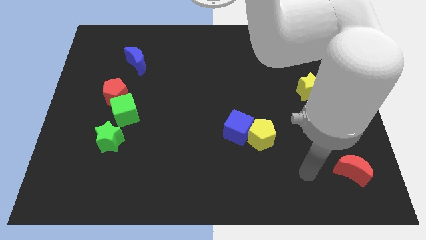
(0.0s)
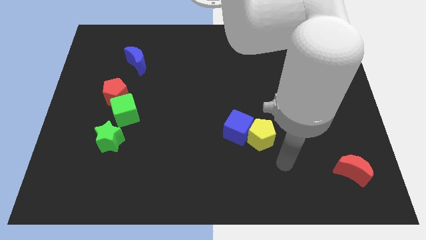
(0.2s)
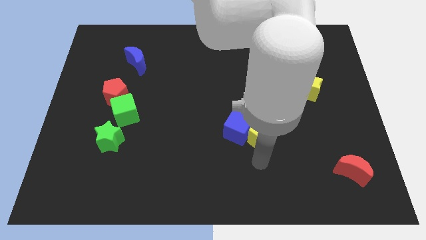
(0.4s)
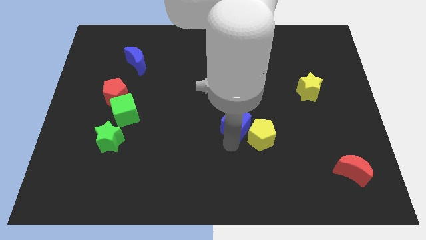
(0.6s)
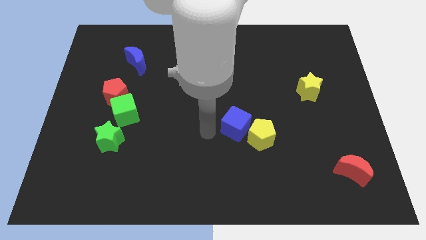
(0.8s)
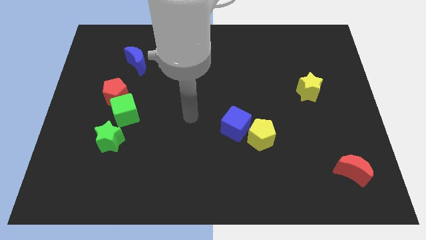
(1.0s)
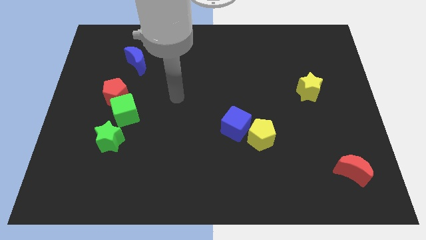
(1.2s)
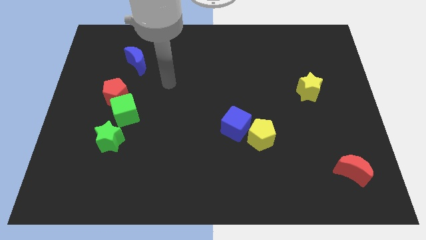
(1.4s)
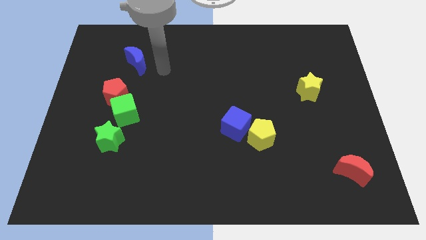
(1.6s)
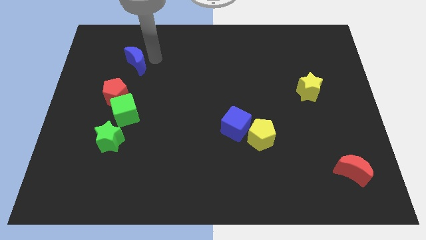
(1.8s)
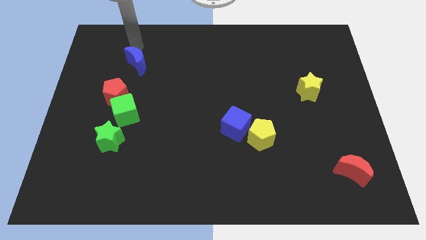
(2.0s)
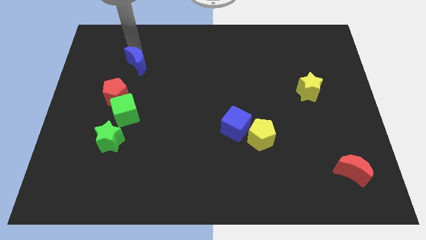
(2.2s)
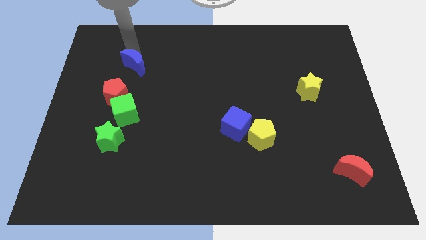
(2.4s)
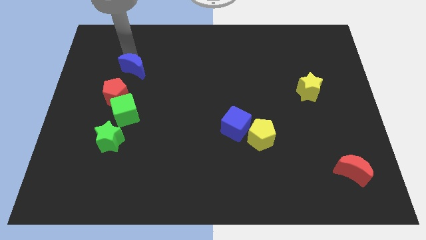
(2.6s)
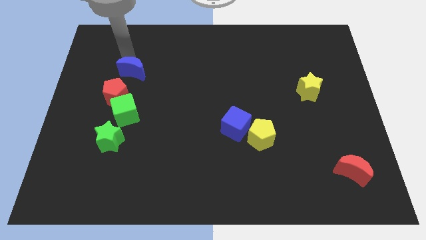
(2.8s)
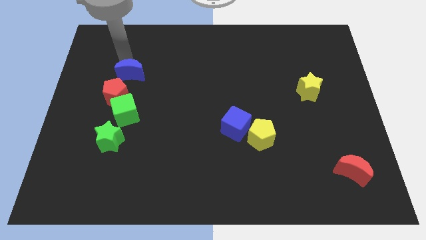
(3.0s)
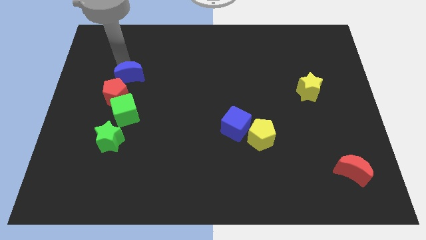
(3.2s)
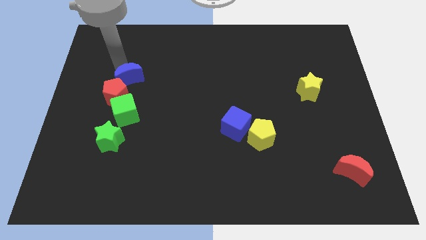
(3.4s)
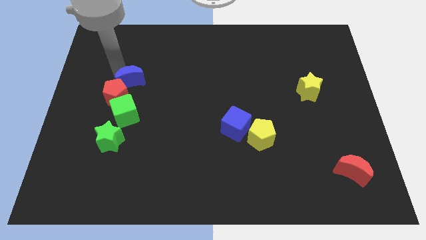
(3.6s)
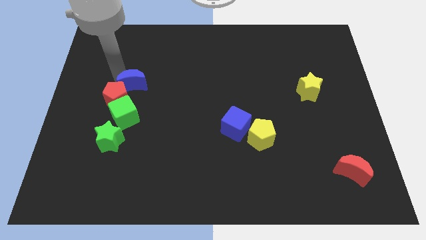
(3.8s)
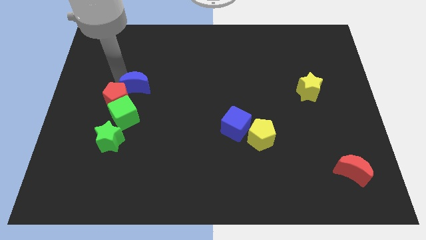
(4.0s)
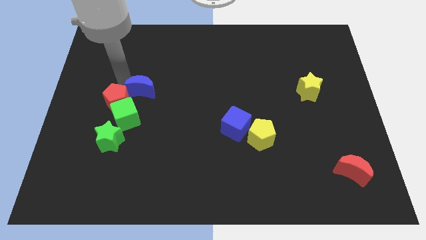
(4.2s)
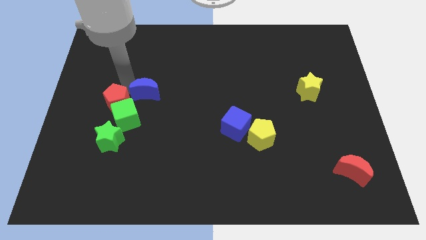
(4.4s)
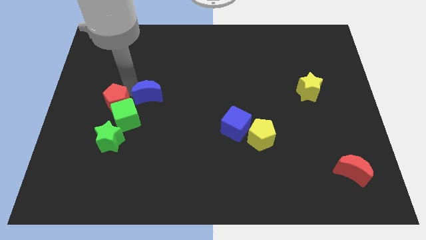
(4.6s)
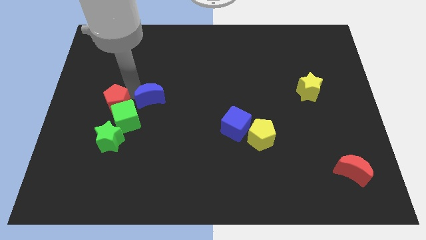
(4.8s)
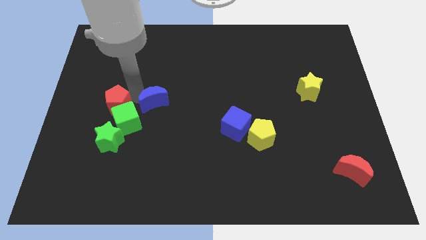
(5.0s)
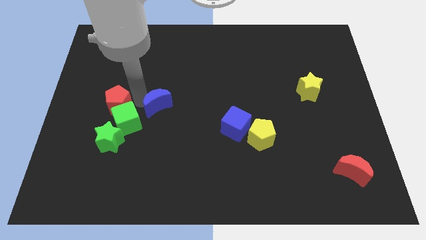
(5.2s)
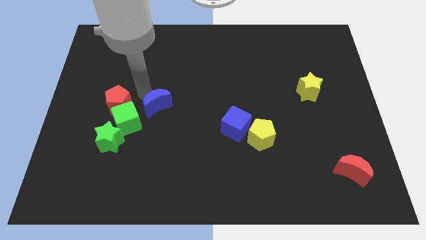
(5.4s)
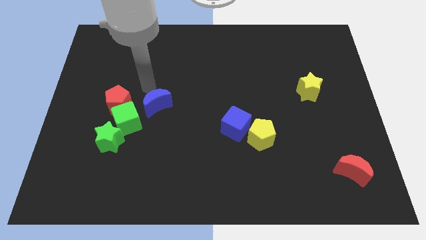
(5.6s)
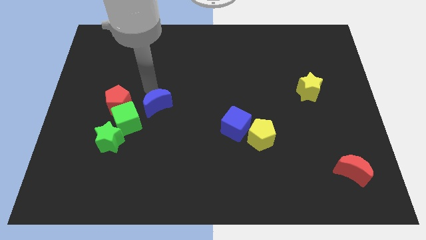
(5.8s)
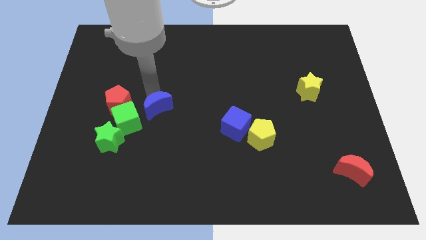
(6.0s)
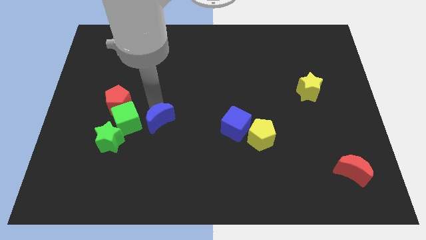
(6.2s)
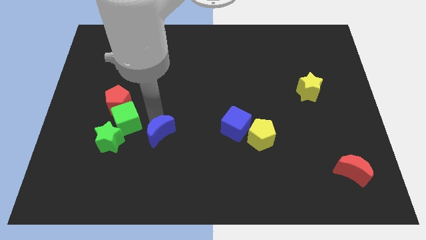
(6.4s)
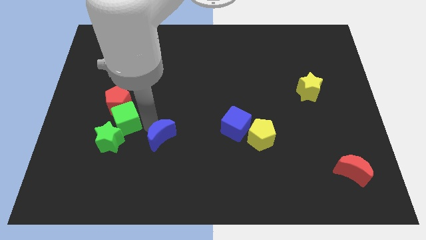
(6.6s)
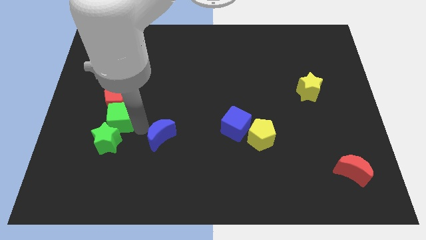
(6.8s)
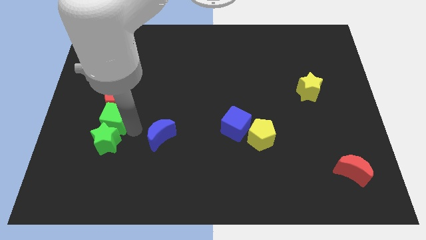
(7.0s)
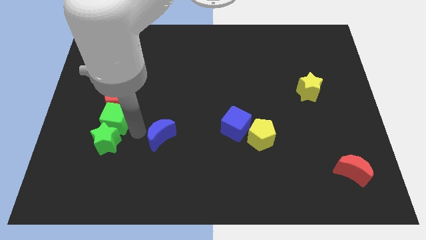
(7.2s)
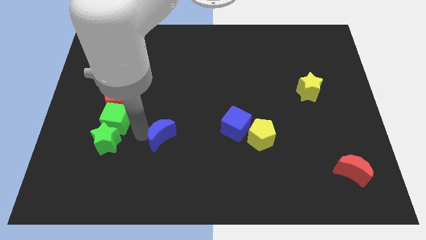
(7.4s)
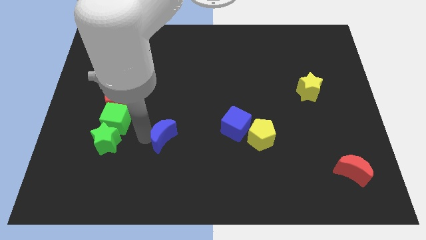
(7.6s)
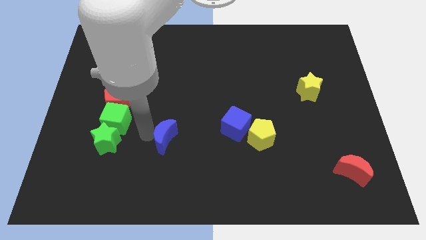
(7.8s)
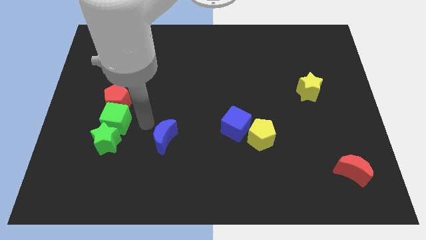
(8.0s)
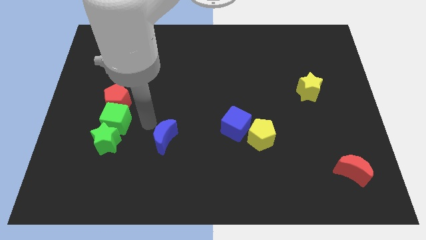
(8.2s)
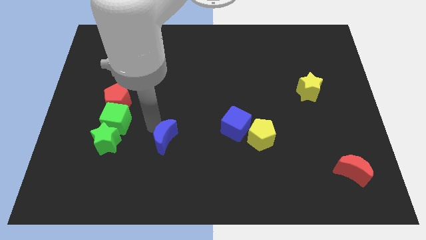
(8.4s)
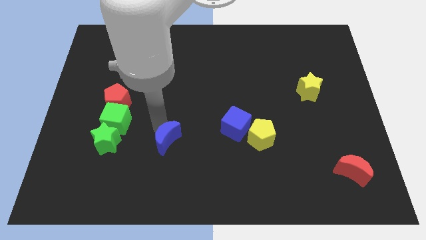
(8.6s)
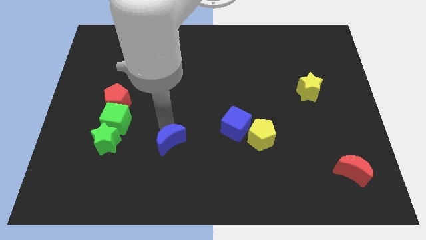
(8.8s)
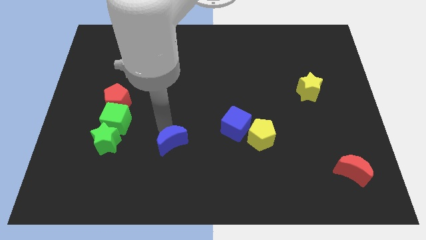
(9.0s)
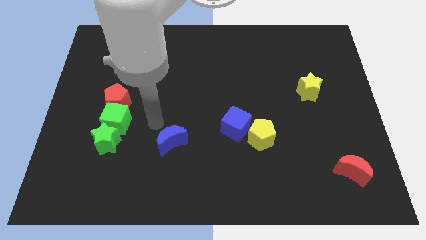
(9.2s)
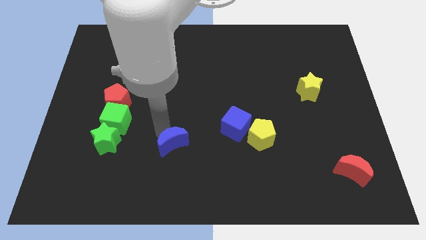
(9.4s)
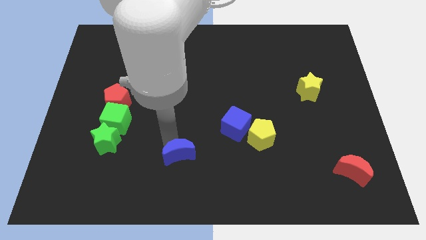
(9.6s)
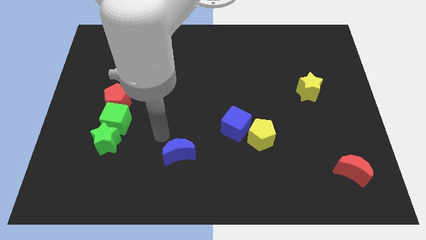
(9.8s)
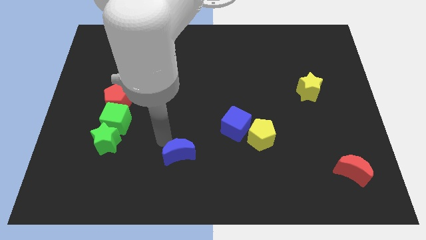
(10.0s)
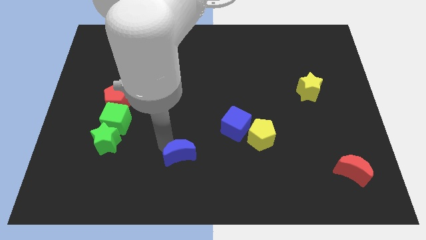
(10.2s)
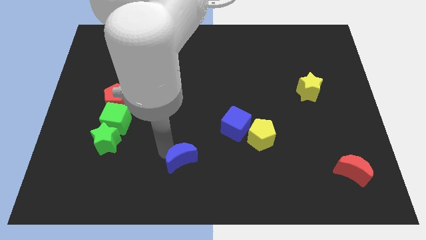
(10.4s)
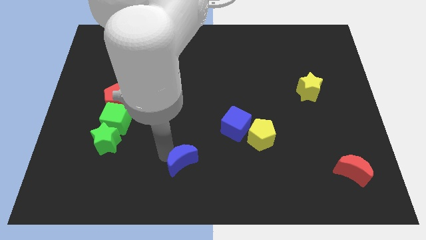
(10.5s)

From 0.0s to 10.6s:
move the blue moon to the bottom

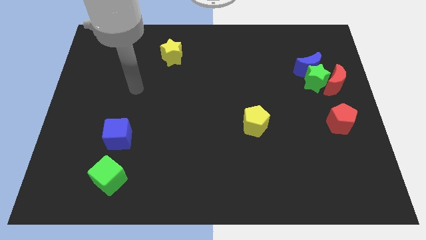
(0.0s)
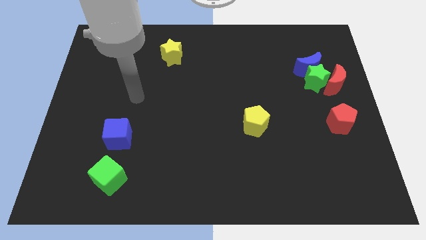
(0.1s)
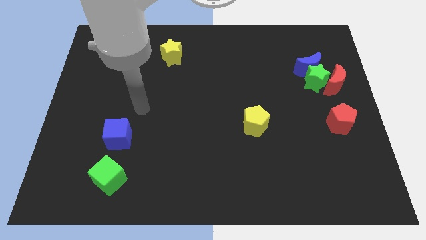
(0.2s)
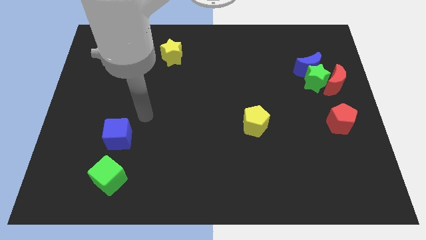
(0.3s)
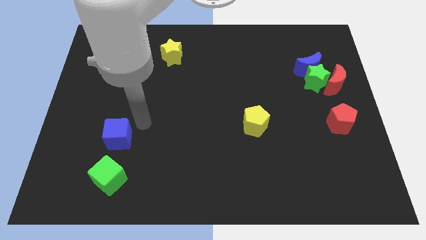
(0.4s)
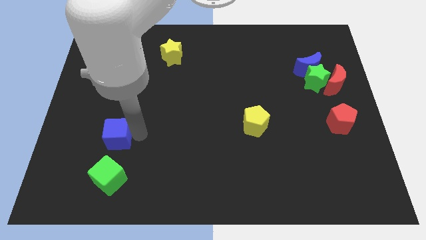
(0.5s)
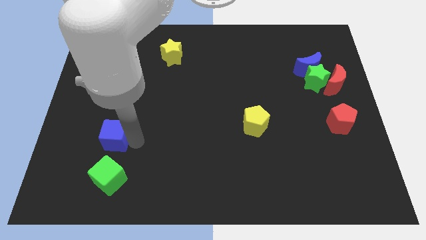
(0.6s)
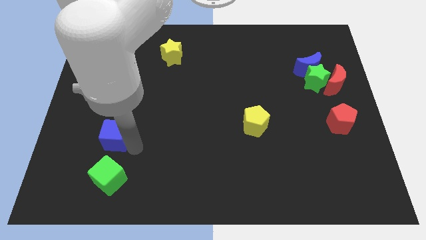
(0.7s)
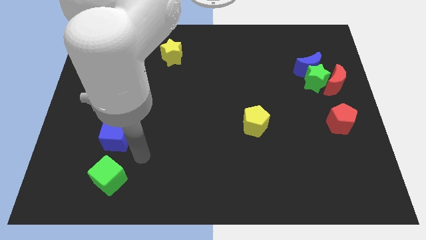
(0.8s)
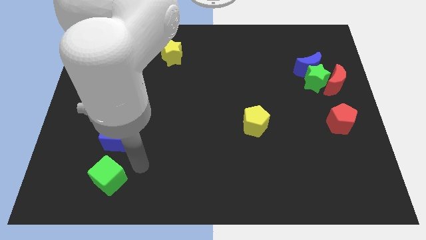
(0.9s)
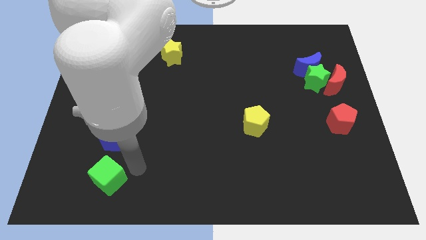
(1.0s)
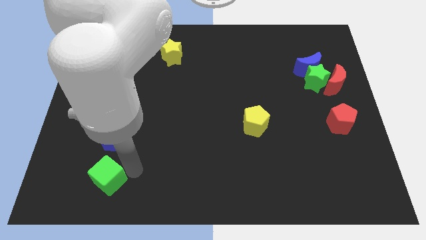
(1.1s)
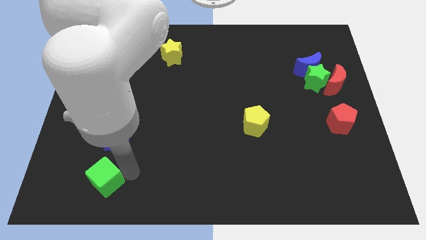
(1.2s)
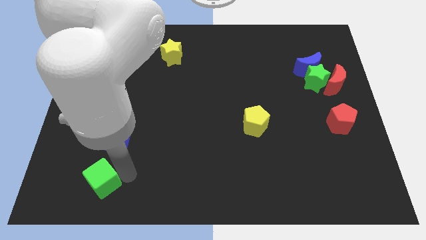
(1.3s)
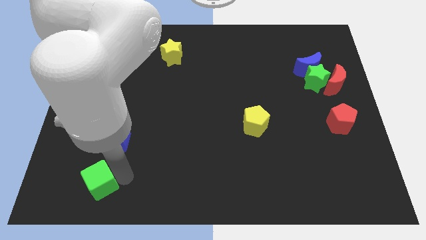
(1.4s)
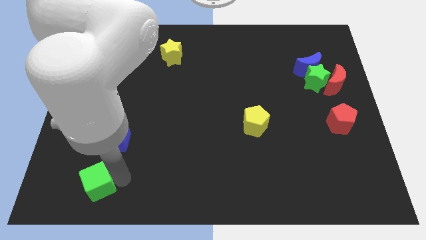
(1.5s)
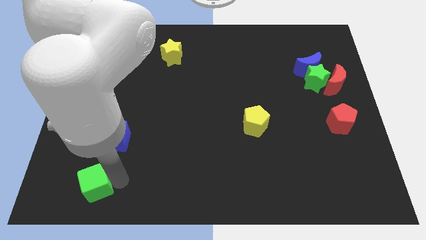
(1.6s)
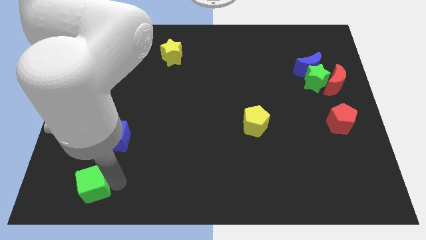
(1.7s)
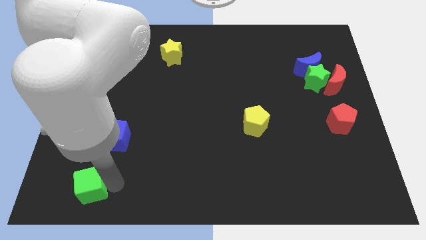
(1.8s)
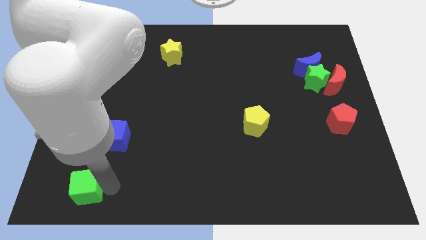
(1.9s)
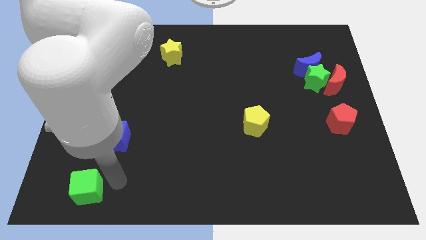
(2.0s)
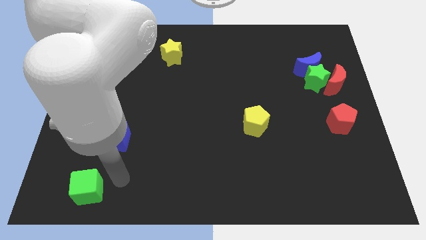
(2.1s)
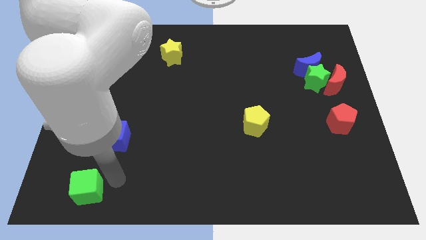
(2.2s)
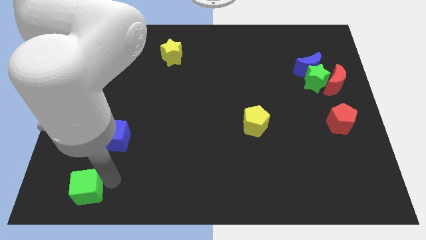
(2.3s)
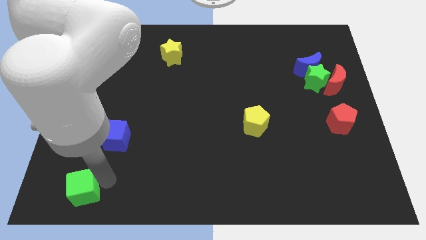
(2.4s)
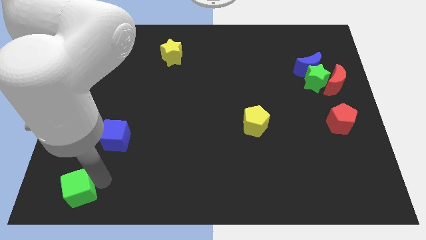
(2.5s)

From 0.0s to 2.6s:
put the green cube to the bottom left corner
